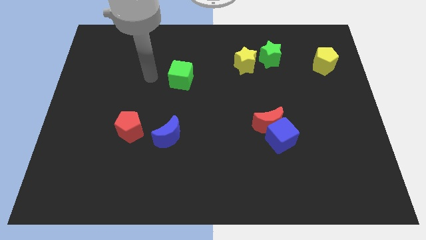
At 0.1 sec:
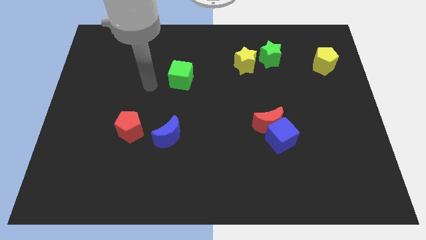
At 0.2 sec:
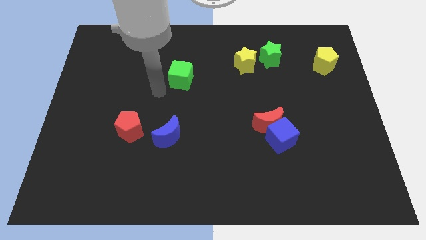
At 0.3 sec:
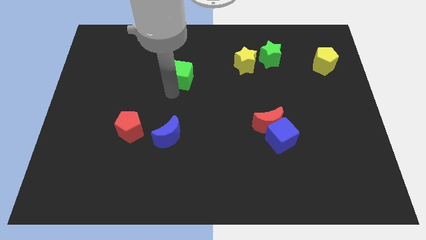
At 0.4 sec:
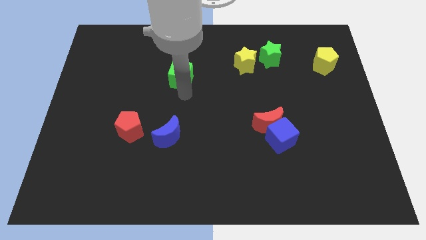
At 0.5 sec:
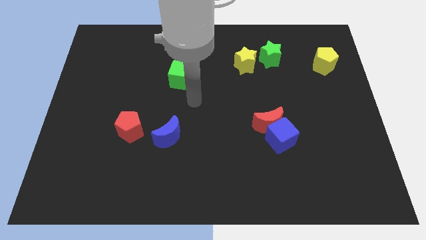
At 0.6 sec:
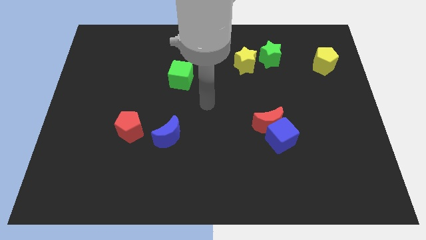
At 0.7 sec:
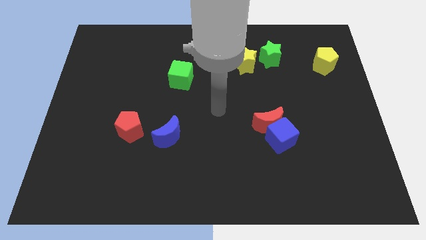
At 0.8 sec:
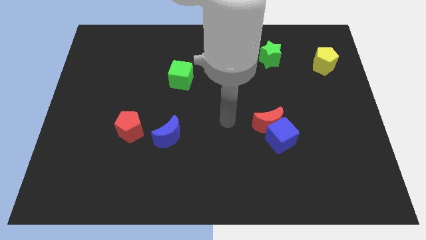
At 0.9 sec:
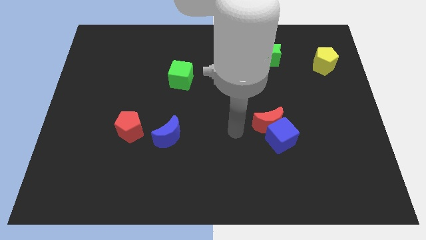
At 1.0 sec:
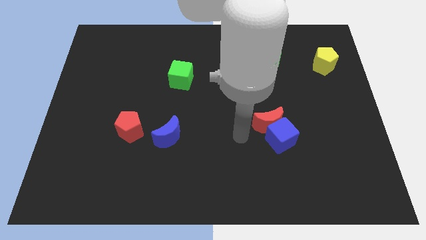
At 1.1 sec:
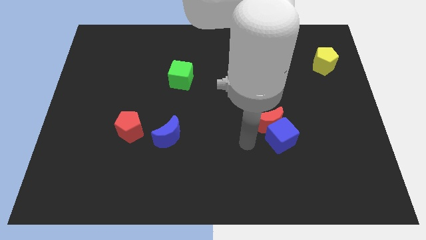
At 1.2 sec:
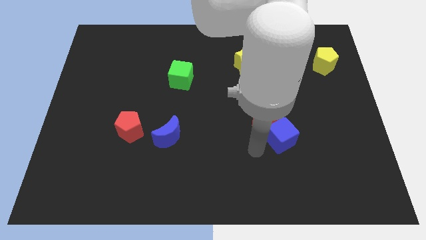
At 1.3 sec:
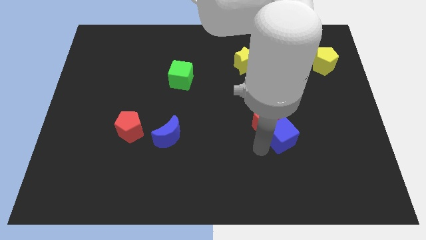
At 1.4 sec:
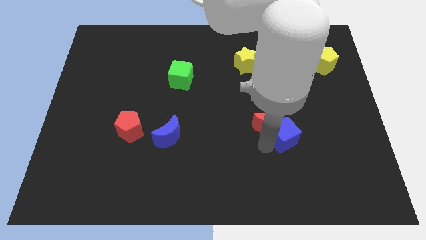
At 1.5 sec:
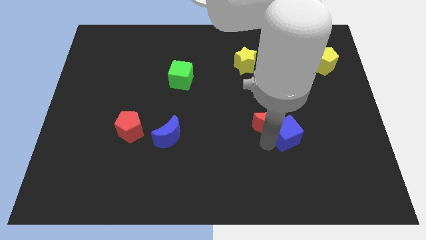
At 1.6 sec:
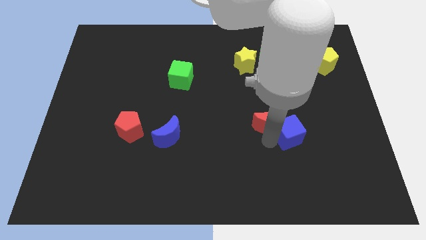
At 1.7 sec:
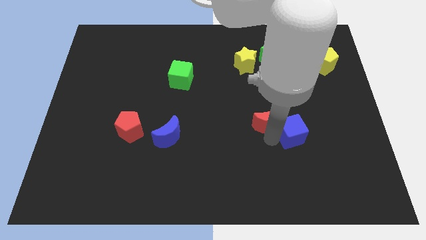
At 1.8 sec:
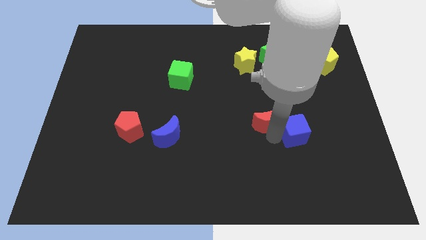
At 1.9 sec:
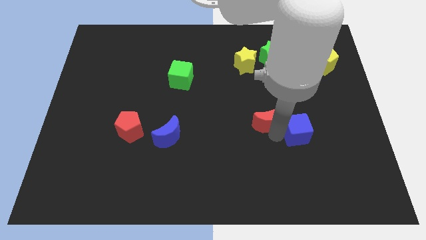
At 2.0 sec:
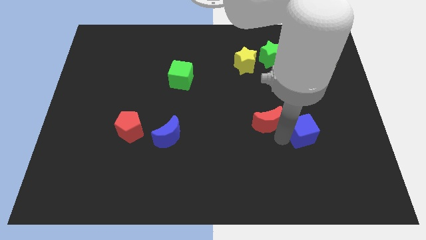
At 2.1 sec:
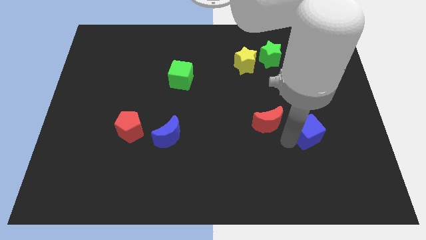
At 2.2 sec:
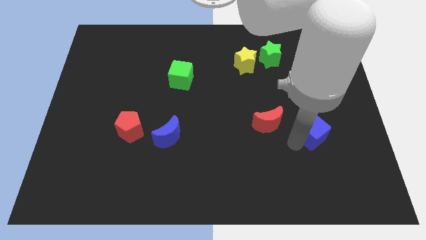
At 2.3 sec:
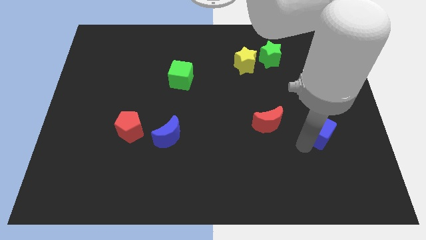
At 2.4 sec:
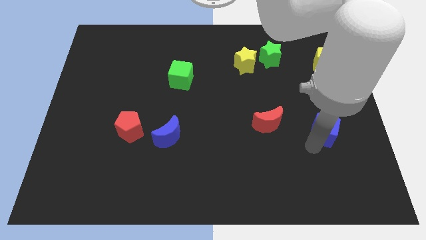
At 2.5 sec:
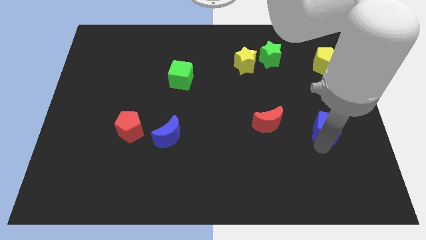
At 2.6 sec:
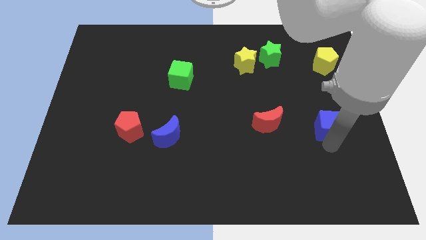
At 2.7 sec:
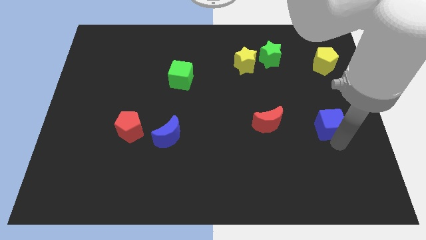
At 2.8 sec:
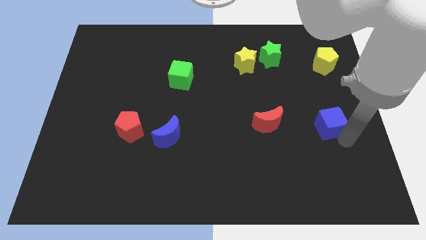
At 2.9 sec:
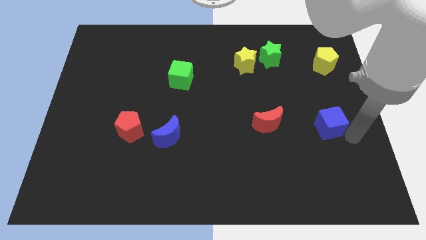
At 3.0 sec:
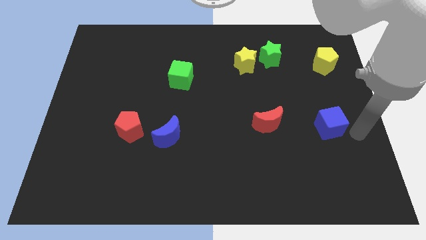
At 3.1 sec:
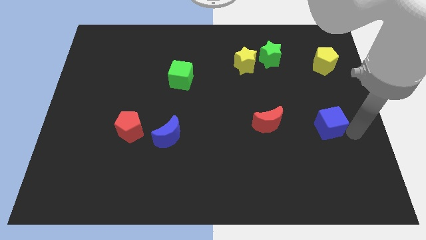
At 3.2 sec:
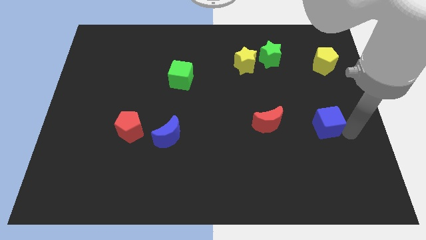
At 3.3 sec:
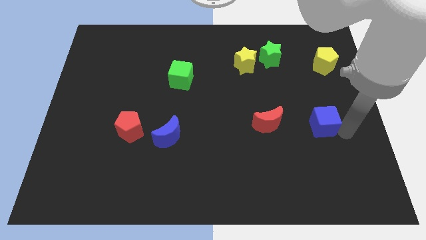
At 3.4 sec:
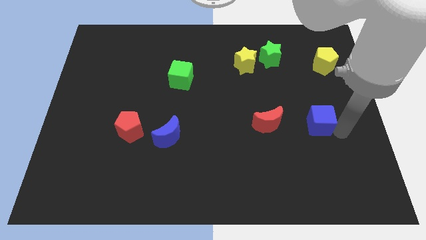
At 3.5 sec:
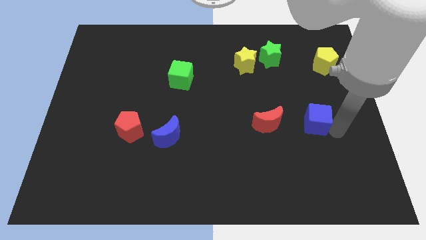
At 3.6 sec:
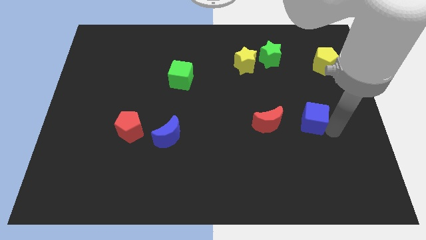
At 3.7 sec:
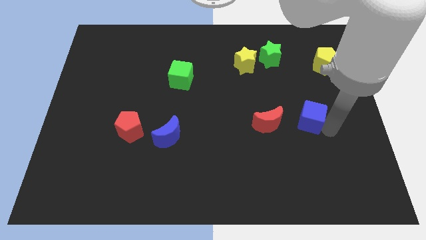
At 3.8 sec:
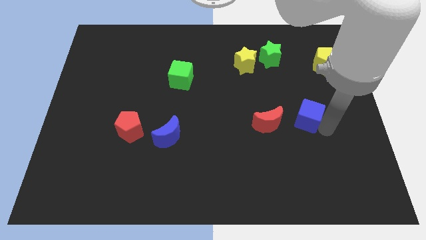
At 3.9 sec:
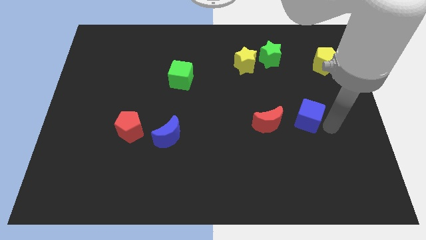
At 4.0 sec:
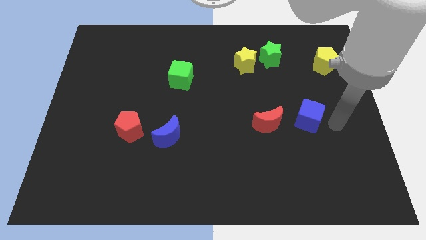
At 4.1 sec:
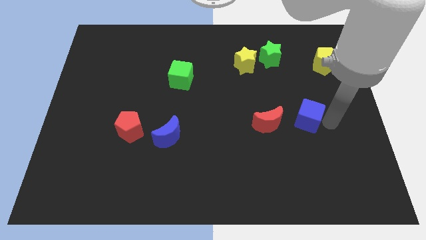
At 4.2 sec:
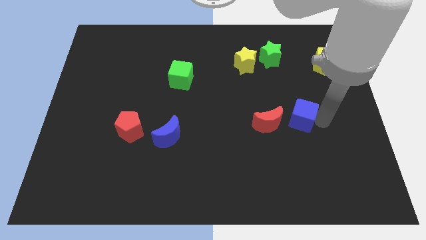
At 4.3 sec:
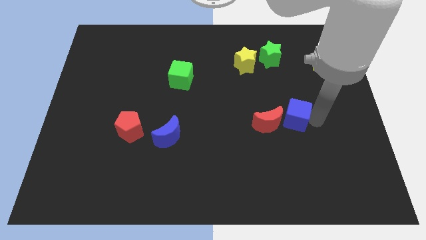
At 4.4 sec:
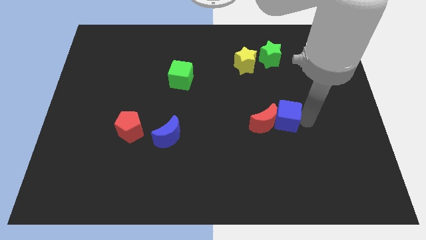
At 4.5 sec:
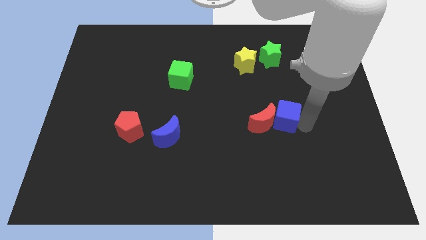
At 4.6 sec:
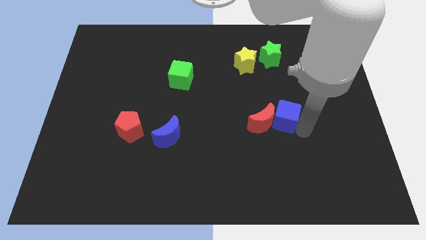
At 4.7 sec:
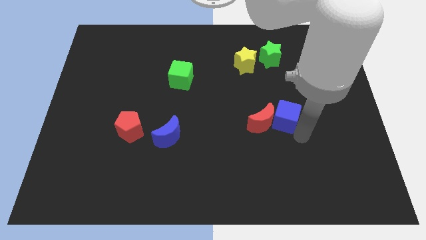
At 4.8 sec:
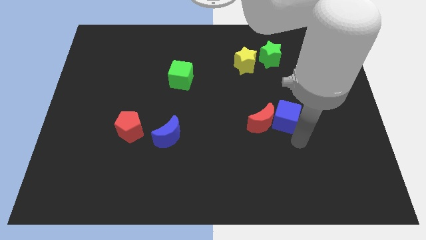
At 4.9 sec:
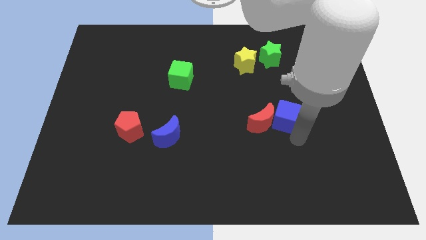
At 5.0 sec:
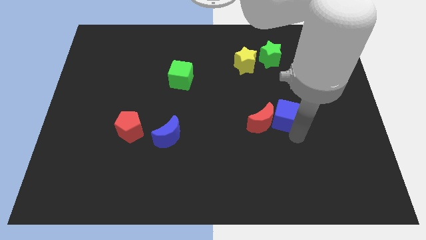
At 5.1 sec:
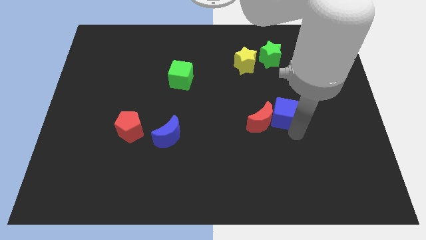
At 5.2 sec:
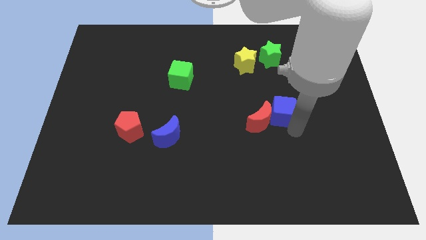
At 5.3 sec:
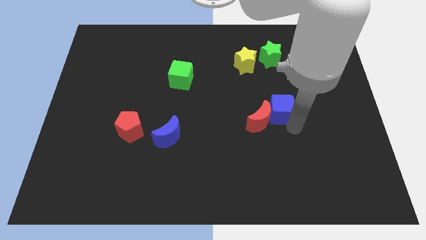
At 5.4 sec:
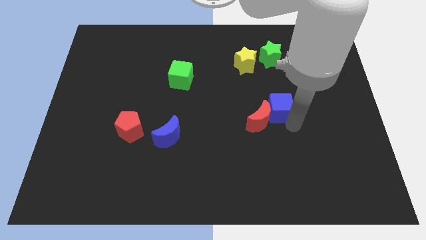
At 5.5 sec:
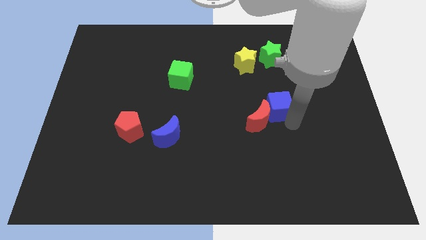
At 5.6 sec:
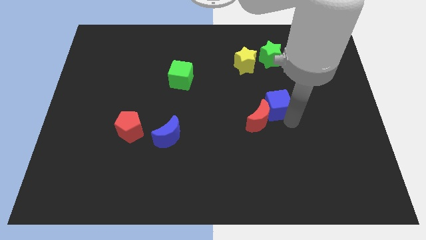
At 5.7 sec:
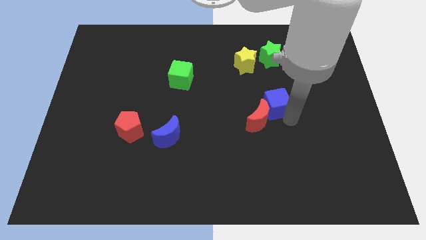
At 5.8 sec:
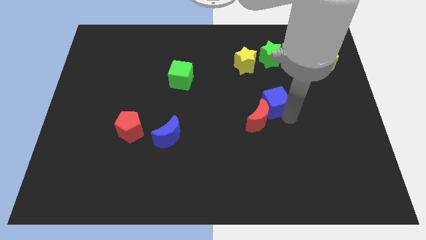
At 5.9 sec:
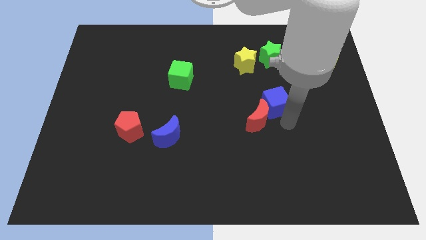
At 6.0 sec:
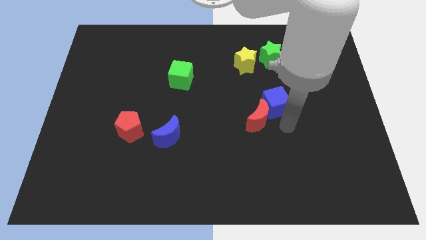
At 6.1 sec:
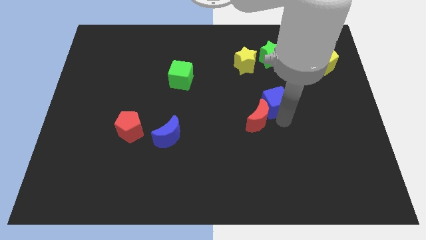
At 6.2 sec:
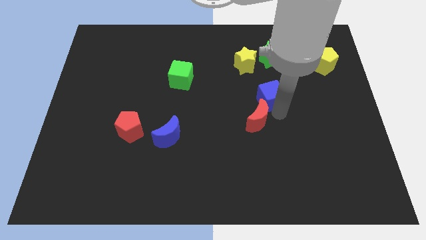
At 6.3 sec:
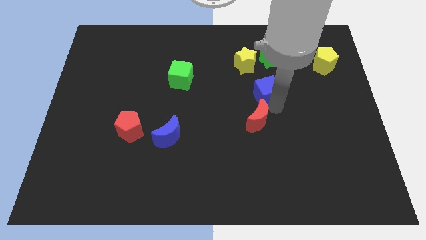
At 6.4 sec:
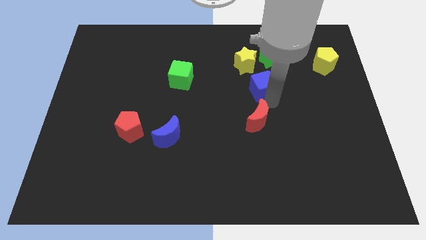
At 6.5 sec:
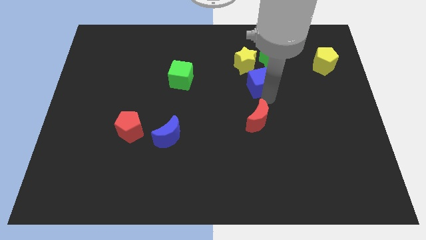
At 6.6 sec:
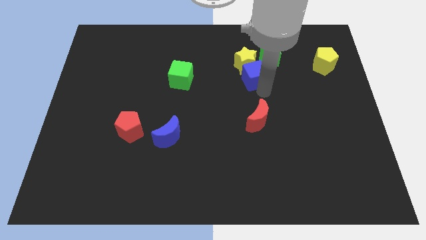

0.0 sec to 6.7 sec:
move the blue cube towards the yellow star

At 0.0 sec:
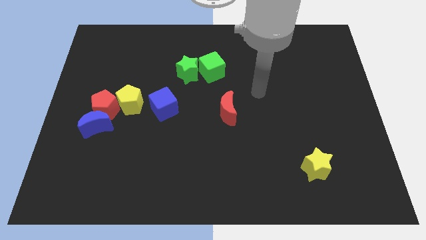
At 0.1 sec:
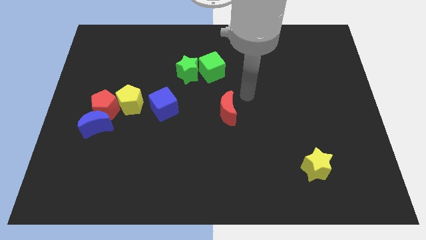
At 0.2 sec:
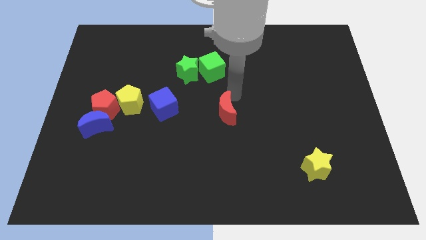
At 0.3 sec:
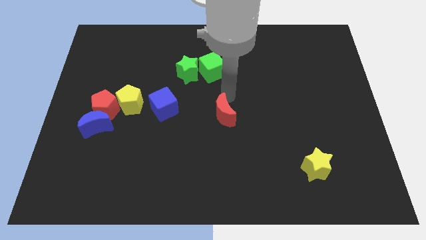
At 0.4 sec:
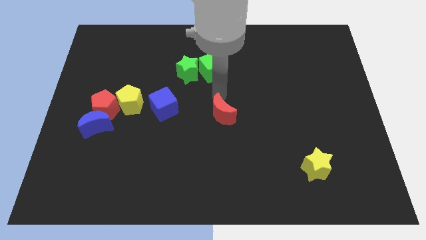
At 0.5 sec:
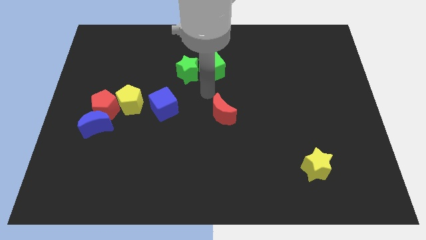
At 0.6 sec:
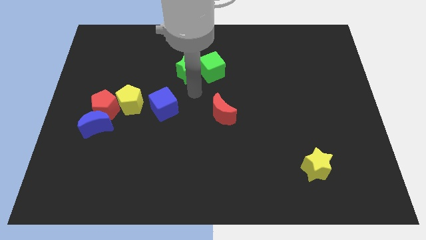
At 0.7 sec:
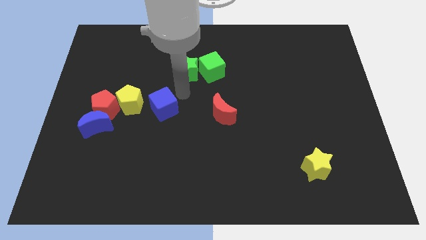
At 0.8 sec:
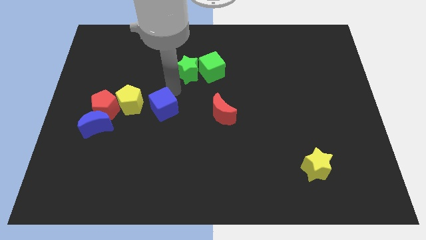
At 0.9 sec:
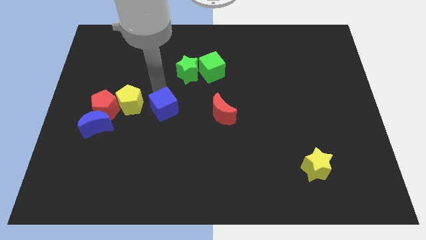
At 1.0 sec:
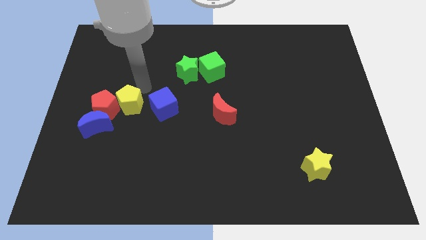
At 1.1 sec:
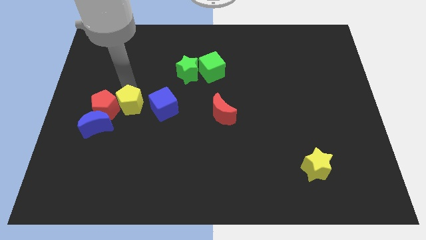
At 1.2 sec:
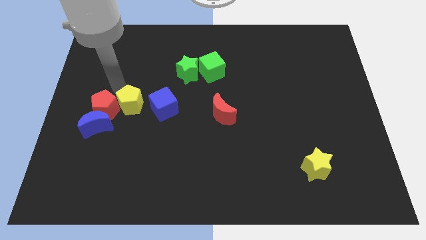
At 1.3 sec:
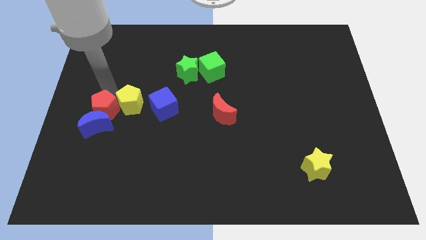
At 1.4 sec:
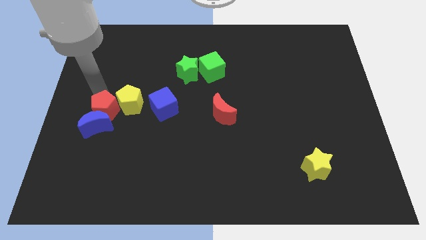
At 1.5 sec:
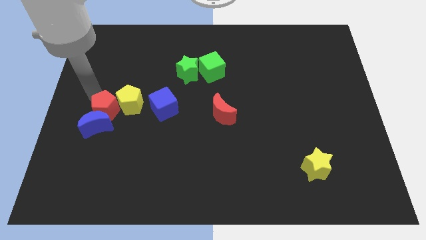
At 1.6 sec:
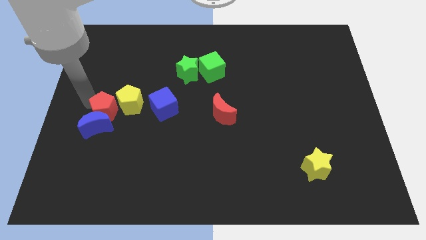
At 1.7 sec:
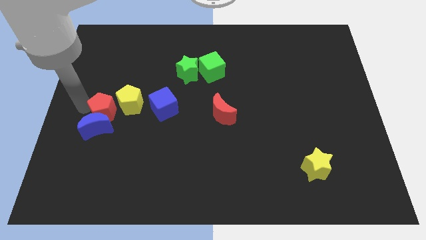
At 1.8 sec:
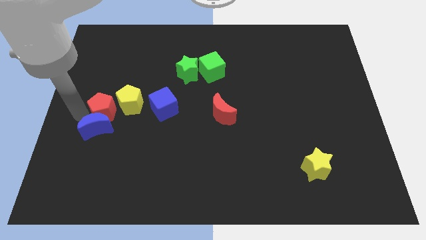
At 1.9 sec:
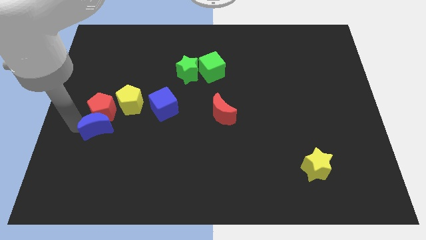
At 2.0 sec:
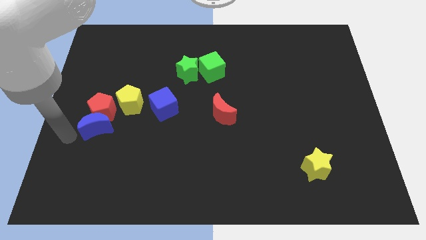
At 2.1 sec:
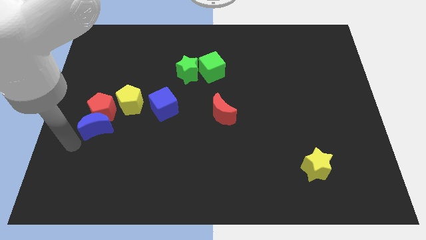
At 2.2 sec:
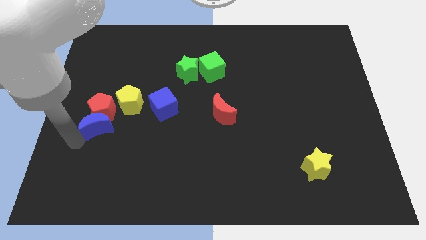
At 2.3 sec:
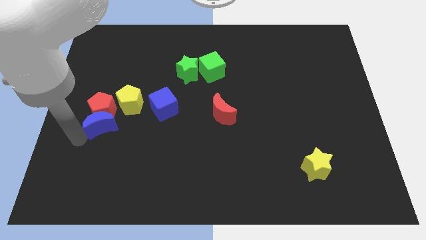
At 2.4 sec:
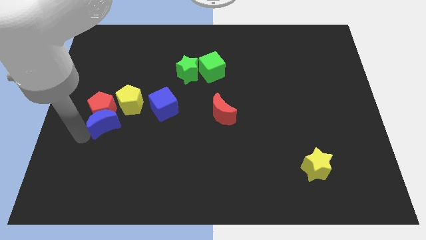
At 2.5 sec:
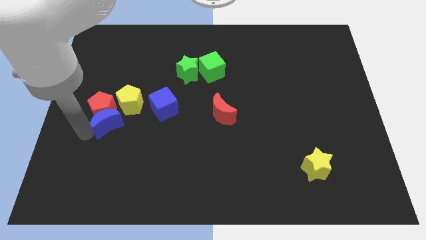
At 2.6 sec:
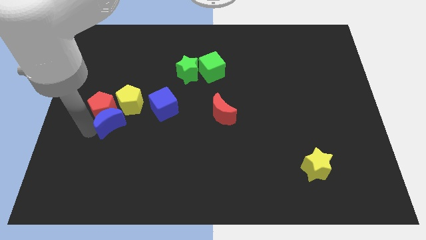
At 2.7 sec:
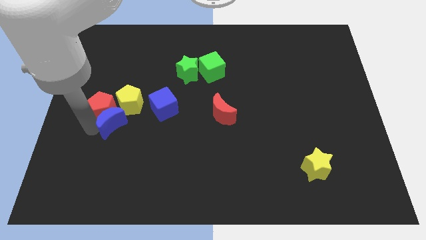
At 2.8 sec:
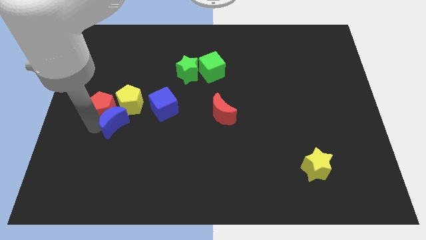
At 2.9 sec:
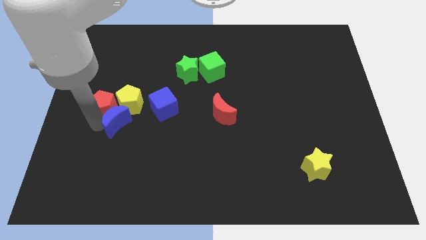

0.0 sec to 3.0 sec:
move the blue moon next to the yellow pentagon
